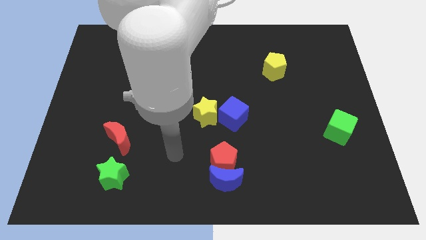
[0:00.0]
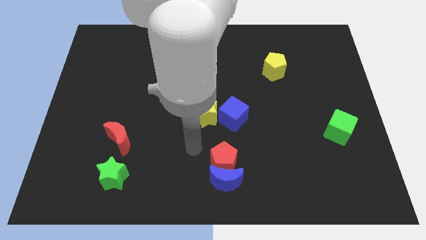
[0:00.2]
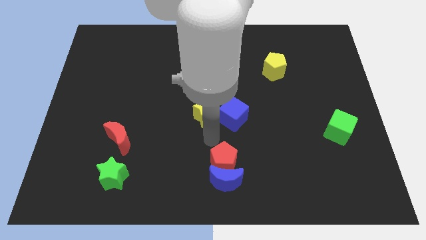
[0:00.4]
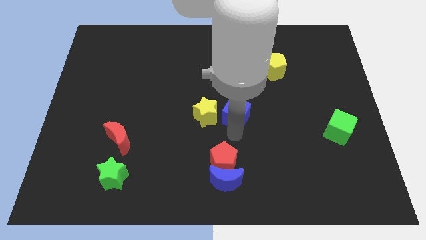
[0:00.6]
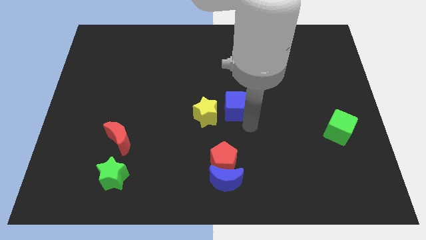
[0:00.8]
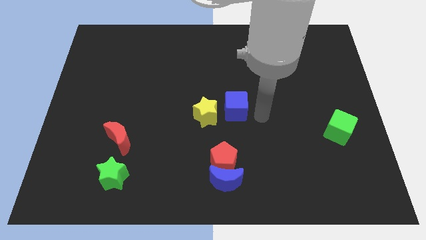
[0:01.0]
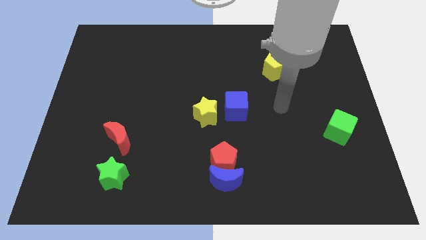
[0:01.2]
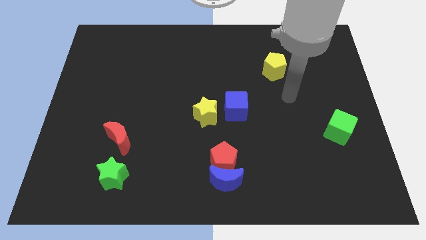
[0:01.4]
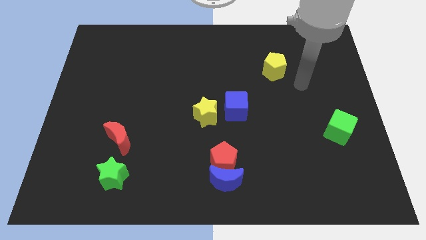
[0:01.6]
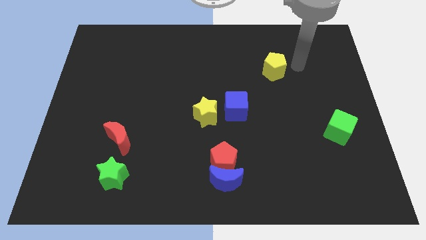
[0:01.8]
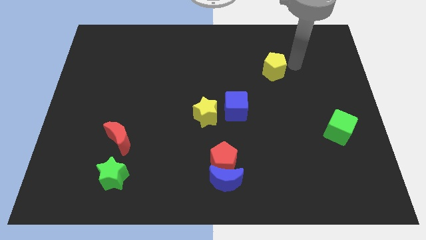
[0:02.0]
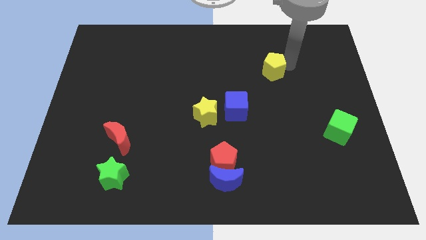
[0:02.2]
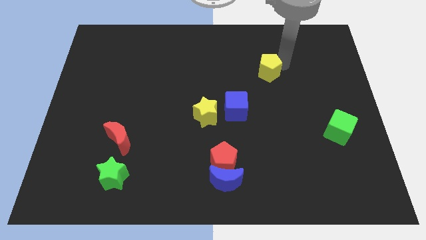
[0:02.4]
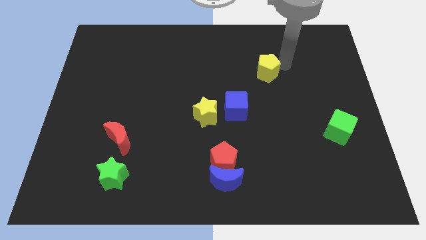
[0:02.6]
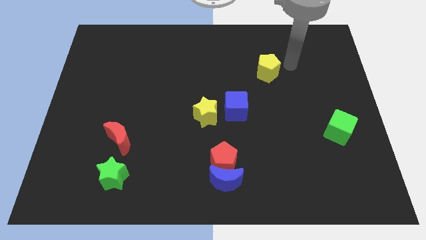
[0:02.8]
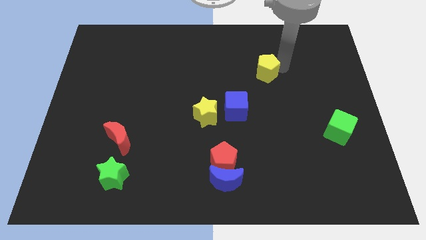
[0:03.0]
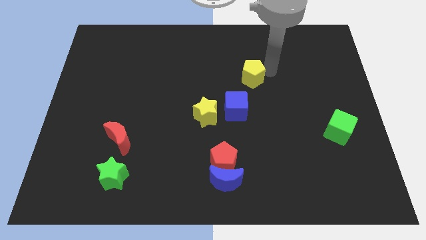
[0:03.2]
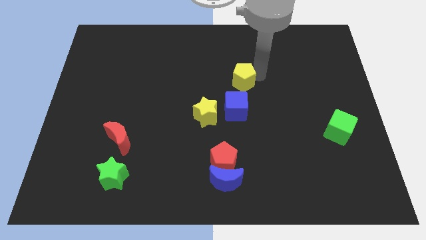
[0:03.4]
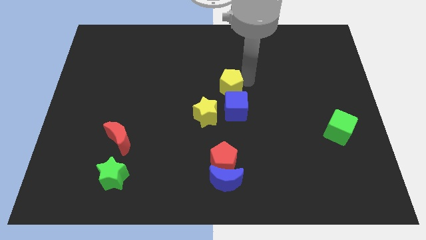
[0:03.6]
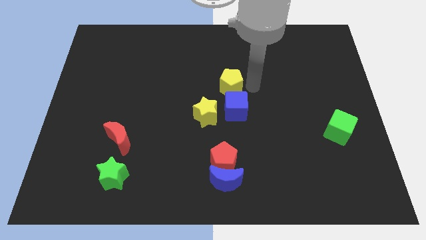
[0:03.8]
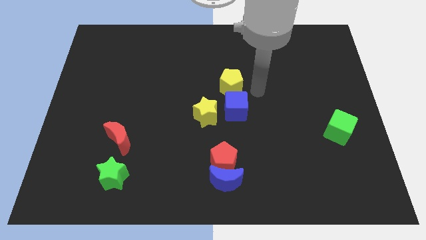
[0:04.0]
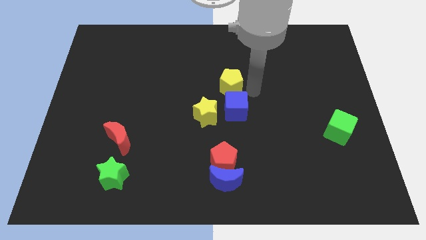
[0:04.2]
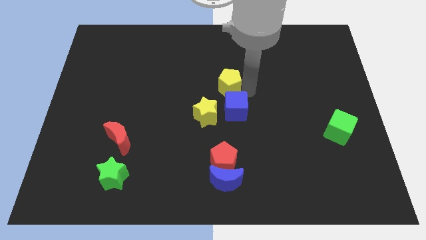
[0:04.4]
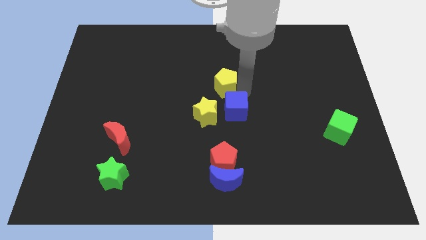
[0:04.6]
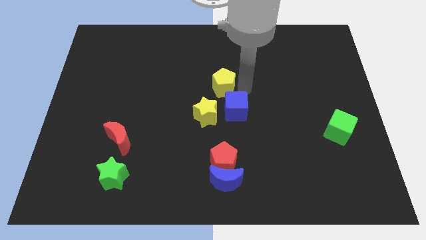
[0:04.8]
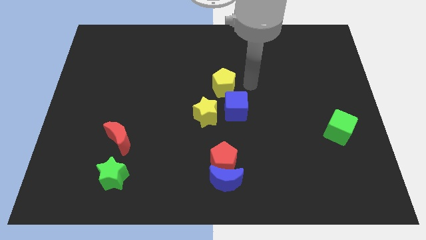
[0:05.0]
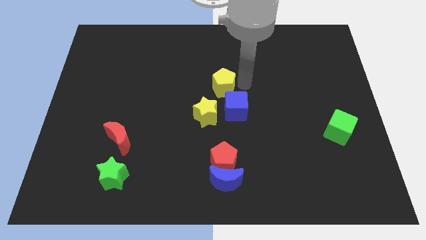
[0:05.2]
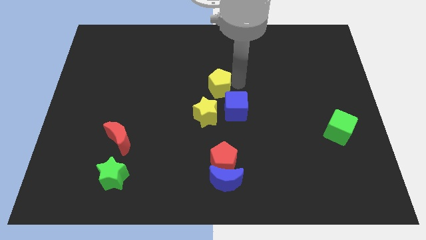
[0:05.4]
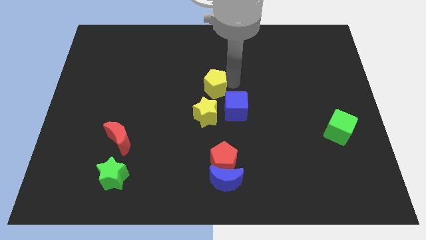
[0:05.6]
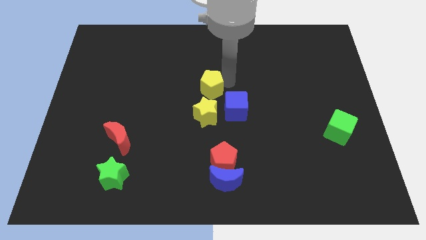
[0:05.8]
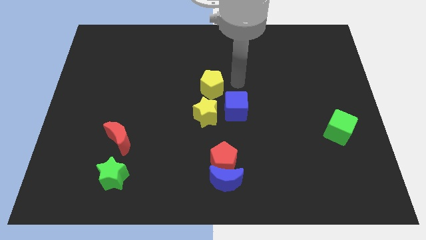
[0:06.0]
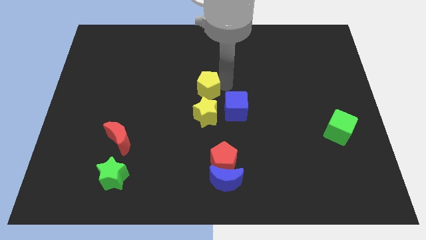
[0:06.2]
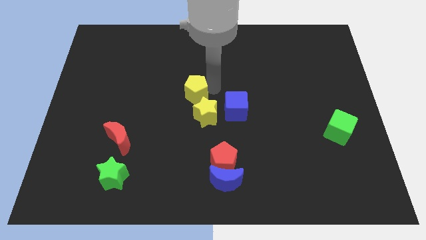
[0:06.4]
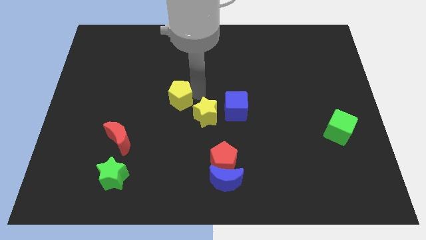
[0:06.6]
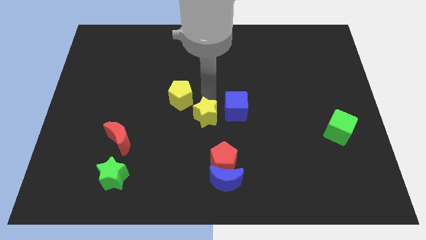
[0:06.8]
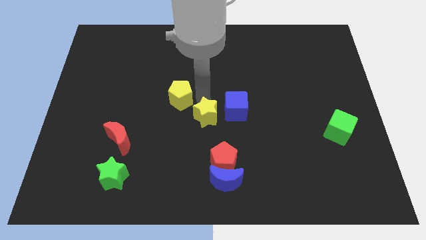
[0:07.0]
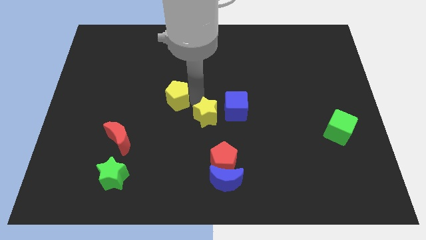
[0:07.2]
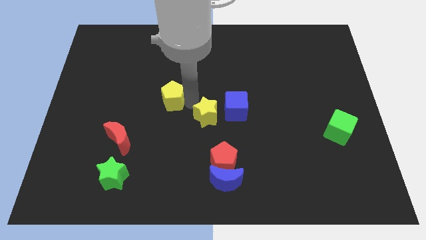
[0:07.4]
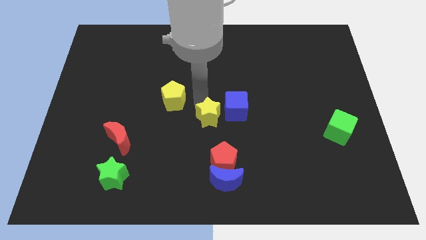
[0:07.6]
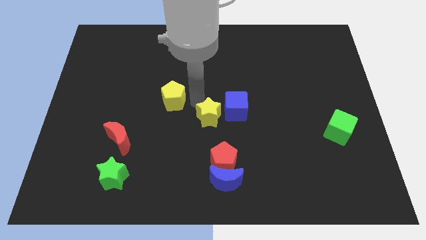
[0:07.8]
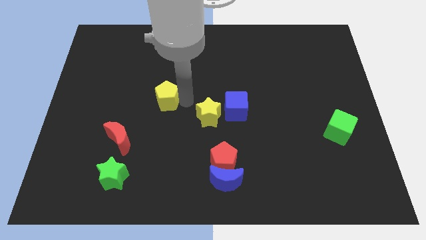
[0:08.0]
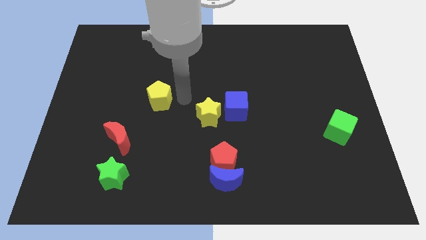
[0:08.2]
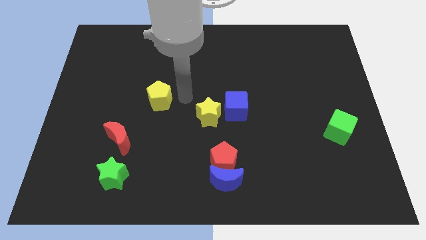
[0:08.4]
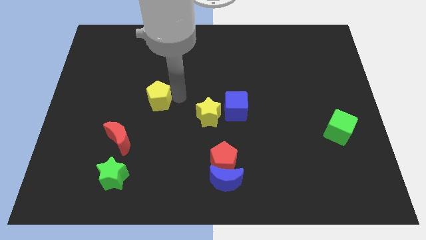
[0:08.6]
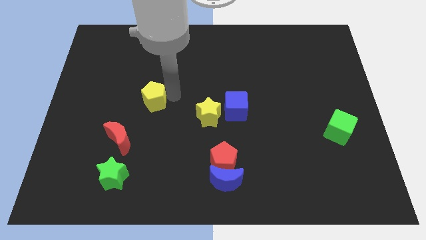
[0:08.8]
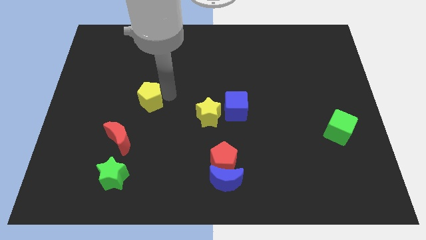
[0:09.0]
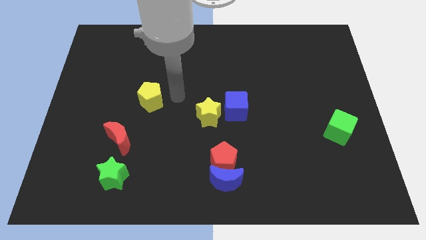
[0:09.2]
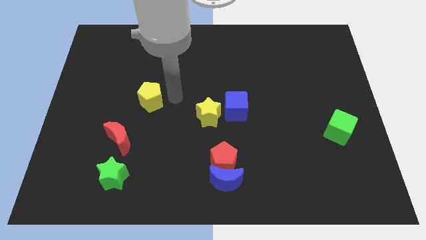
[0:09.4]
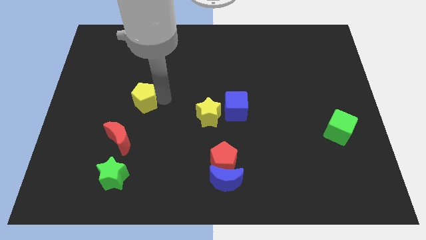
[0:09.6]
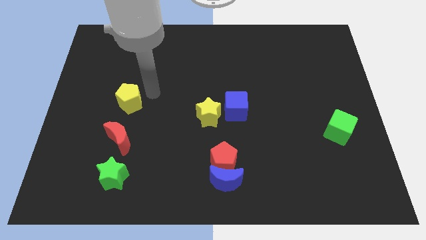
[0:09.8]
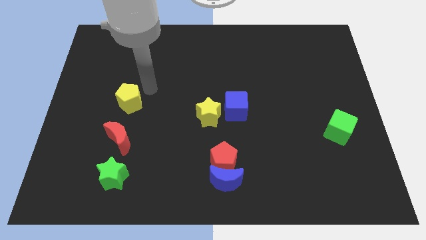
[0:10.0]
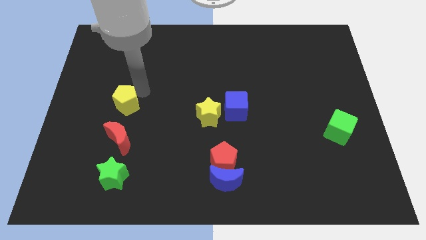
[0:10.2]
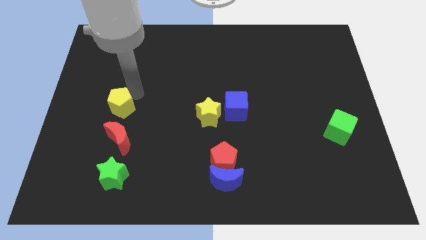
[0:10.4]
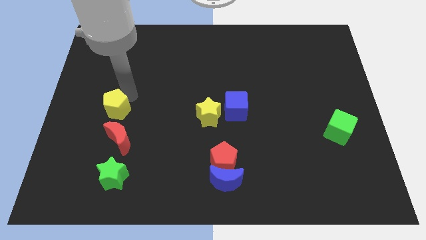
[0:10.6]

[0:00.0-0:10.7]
slide the yellow pentagon diagonally up and to the left of the red moon

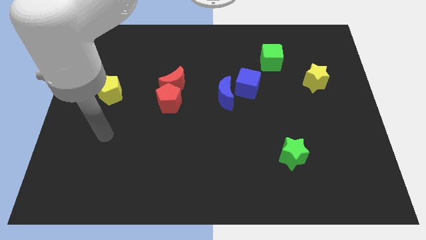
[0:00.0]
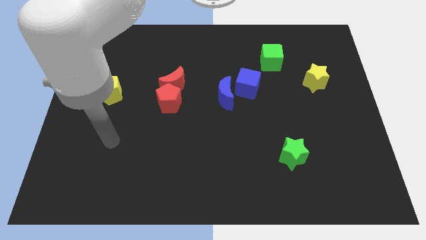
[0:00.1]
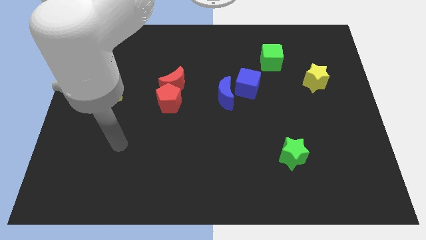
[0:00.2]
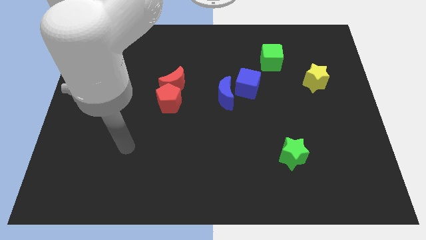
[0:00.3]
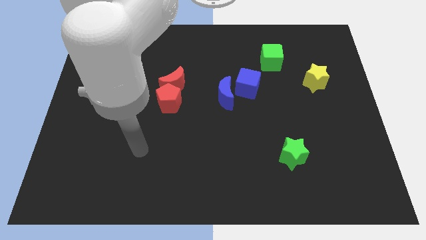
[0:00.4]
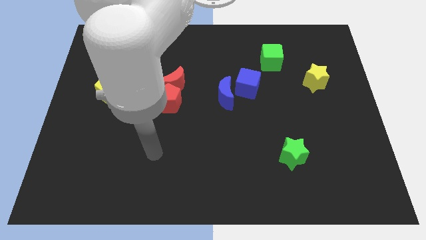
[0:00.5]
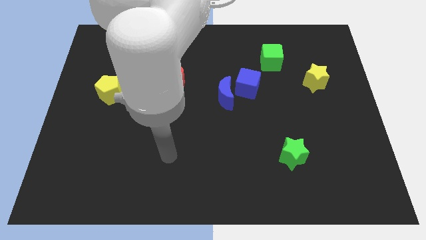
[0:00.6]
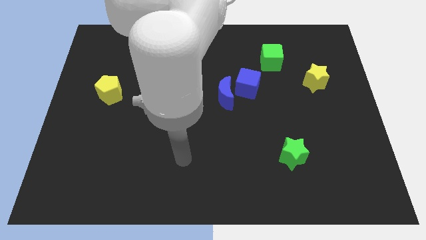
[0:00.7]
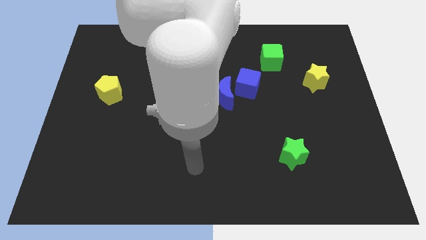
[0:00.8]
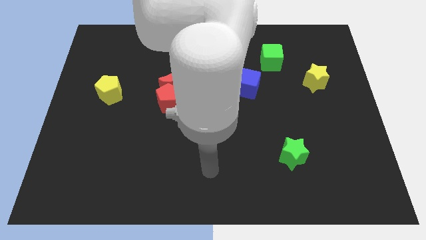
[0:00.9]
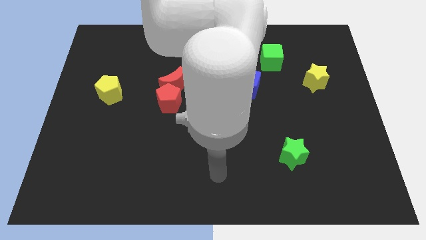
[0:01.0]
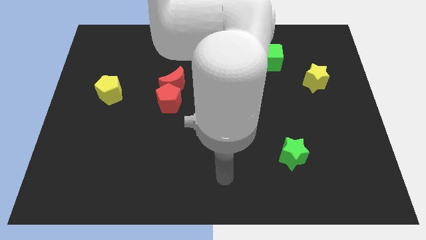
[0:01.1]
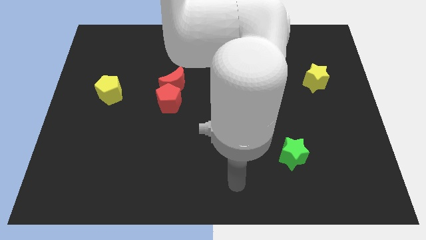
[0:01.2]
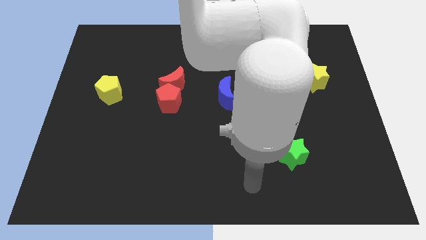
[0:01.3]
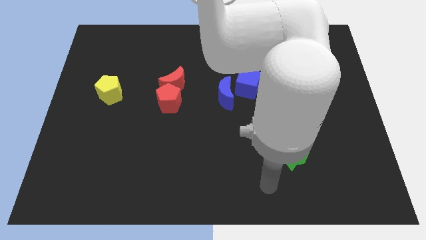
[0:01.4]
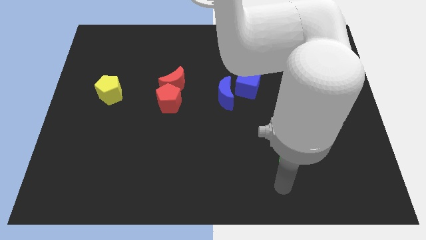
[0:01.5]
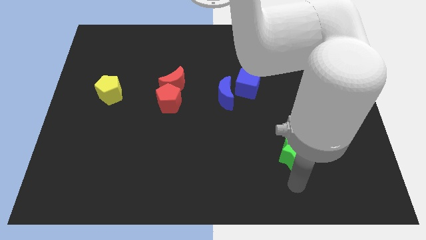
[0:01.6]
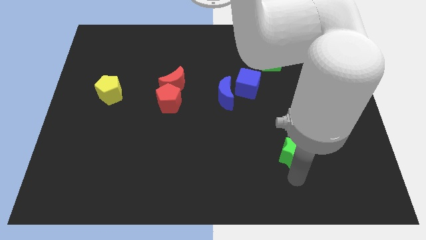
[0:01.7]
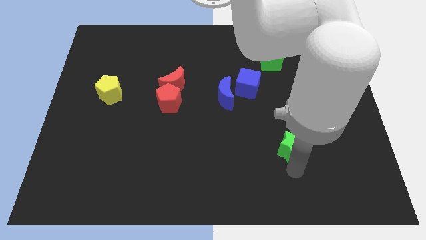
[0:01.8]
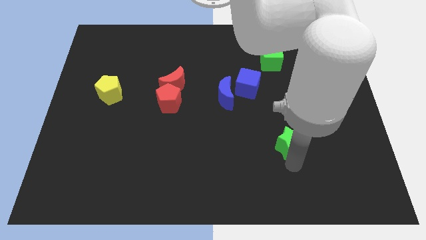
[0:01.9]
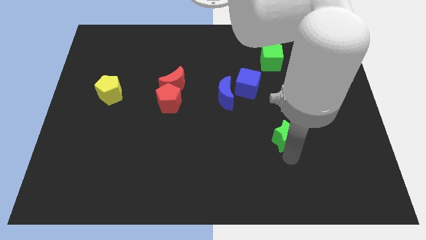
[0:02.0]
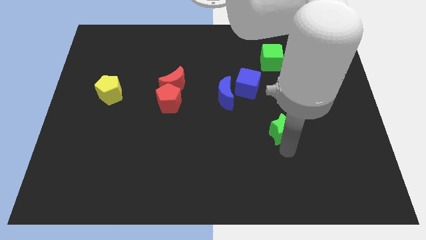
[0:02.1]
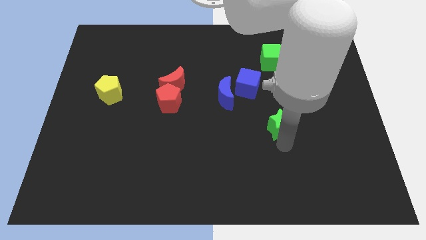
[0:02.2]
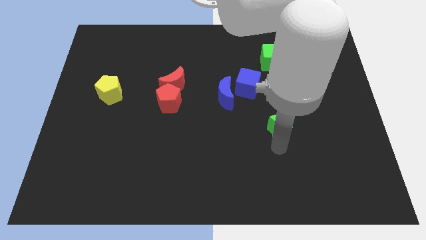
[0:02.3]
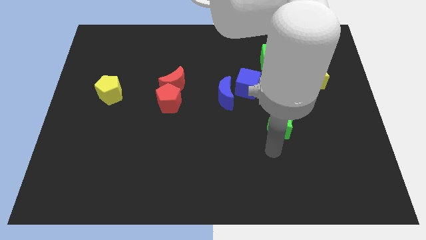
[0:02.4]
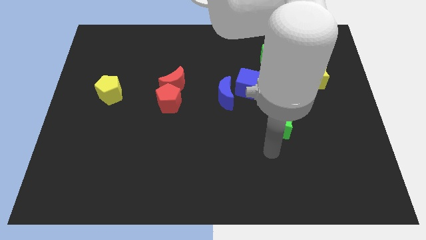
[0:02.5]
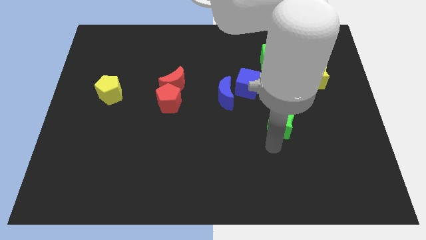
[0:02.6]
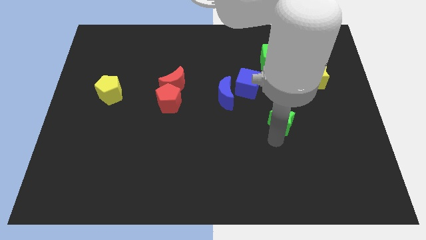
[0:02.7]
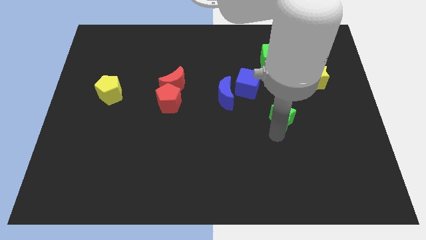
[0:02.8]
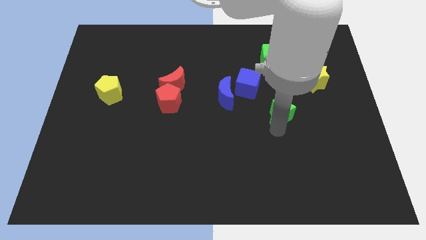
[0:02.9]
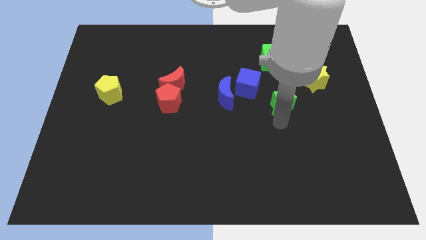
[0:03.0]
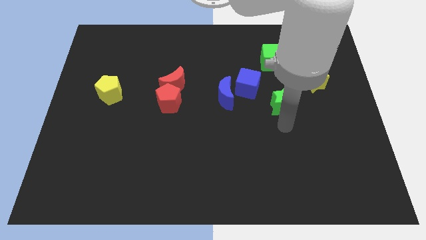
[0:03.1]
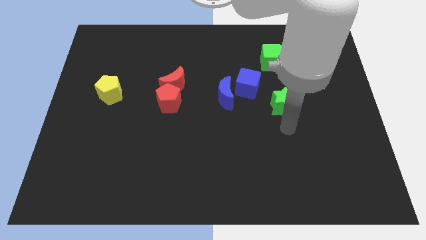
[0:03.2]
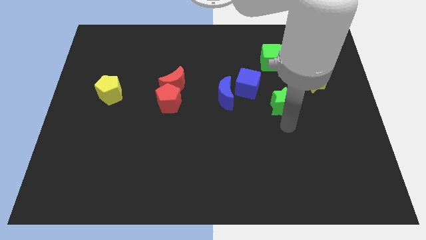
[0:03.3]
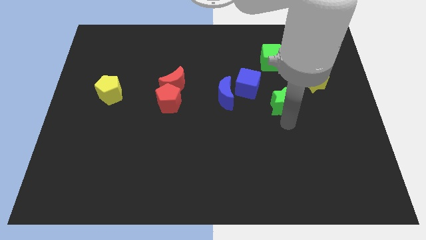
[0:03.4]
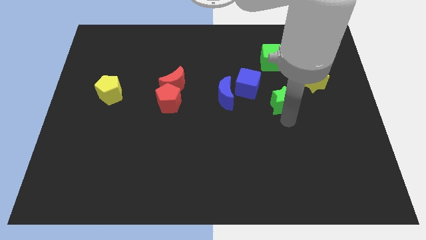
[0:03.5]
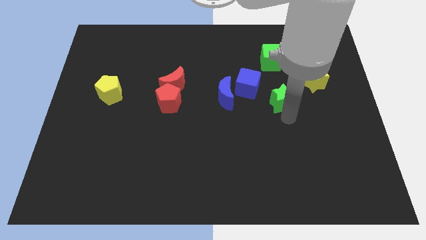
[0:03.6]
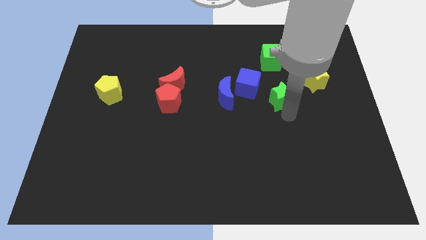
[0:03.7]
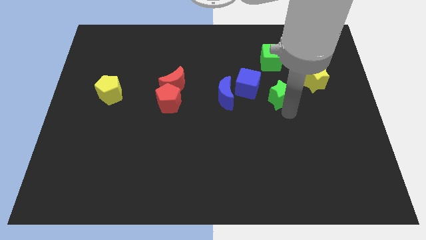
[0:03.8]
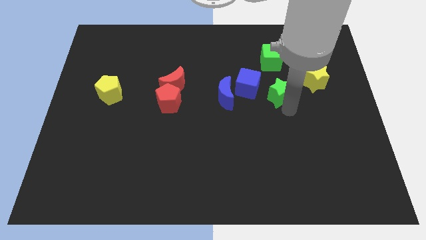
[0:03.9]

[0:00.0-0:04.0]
push the green star left of the yellow star
